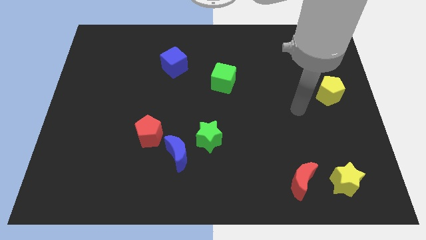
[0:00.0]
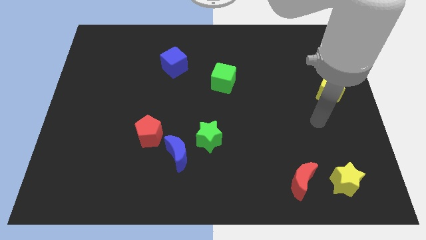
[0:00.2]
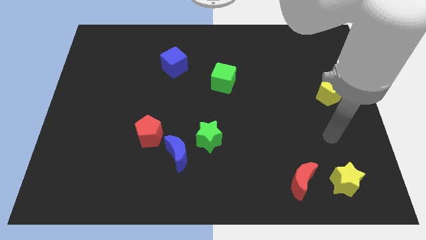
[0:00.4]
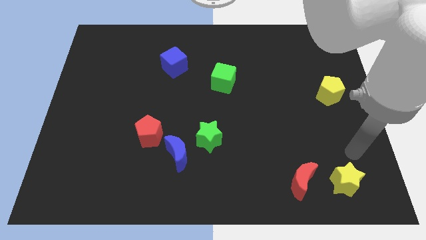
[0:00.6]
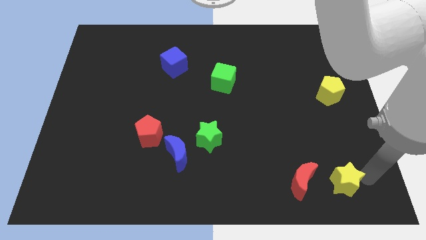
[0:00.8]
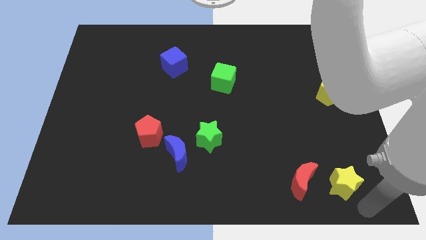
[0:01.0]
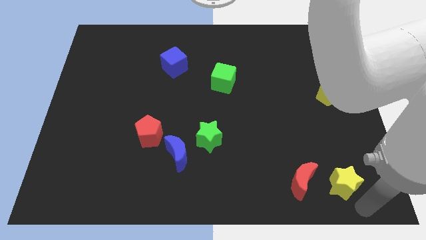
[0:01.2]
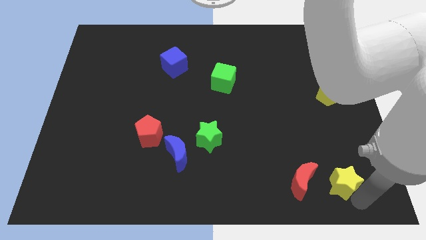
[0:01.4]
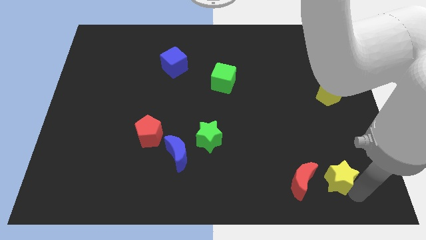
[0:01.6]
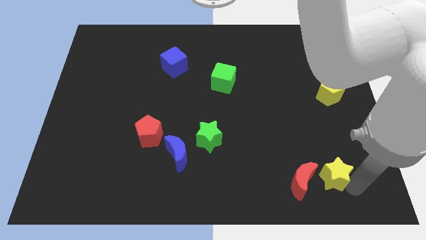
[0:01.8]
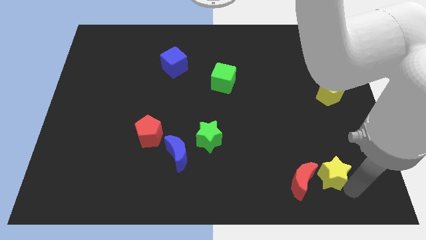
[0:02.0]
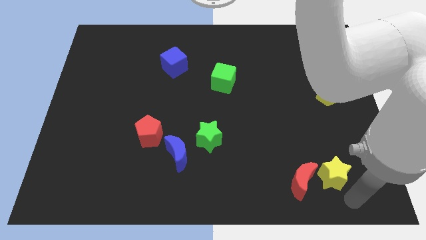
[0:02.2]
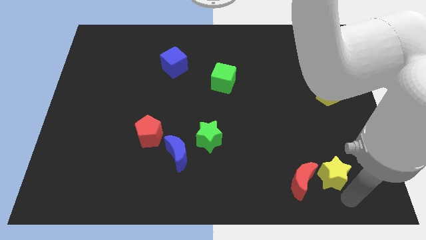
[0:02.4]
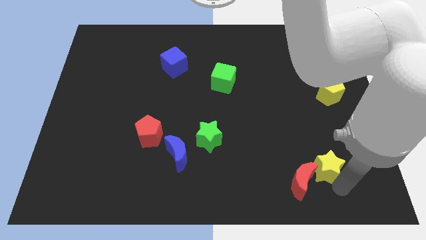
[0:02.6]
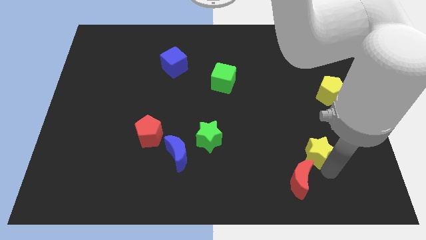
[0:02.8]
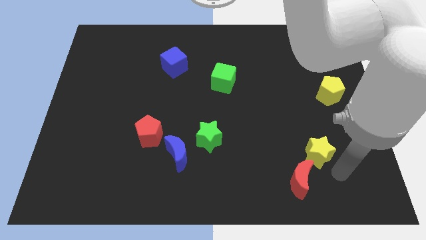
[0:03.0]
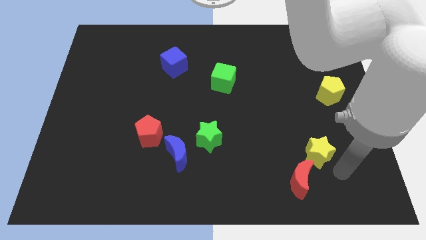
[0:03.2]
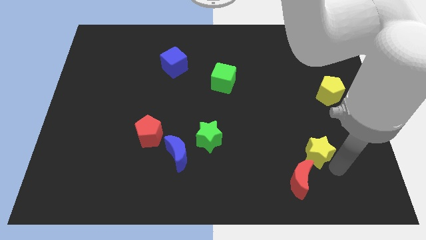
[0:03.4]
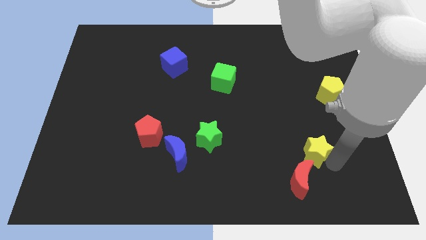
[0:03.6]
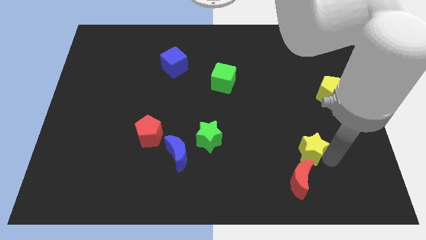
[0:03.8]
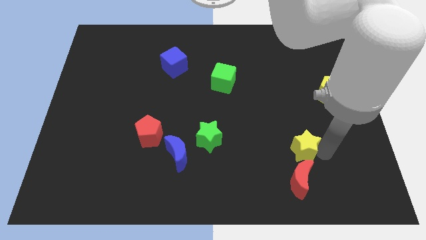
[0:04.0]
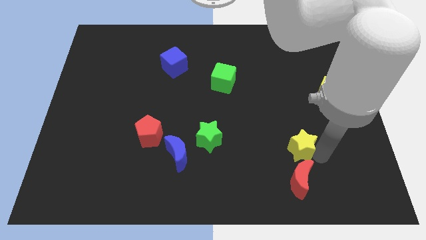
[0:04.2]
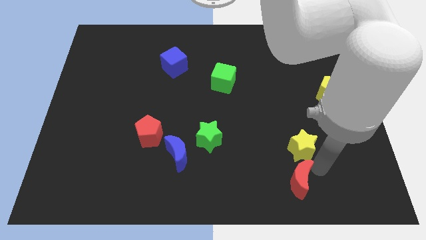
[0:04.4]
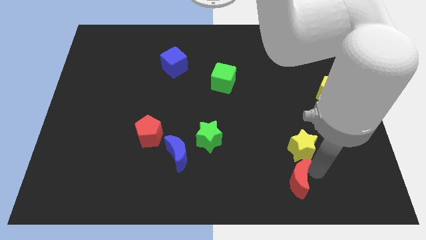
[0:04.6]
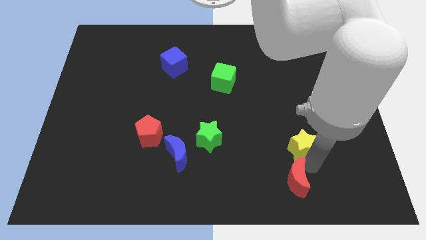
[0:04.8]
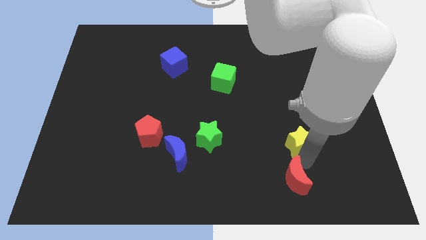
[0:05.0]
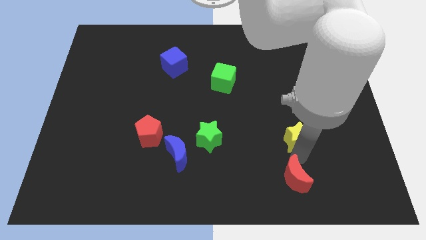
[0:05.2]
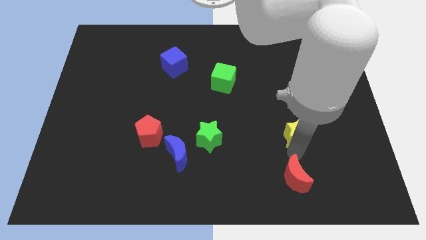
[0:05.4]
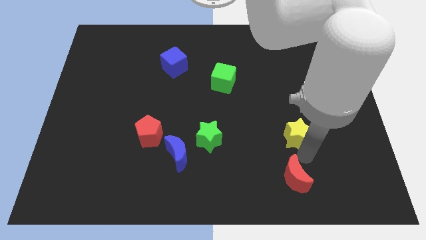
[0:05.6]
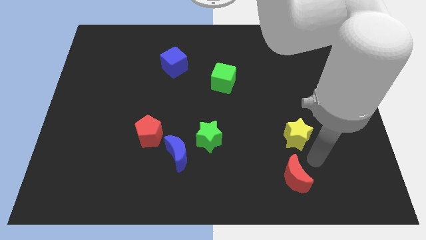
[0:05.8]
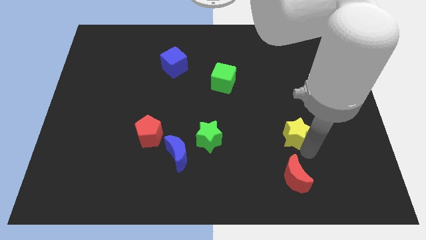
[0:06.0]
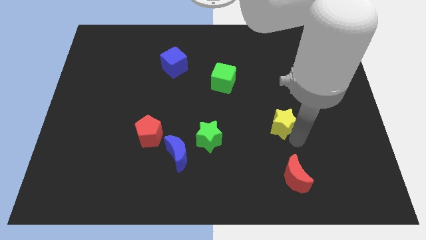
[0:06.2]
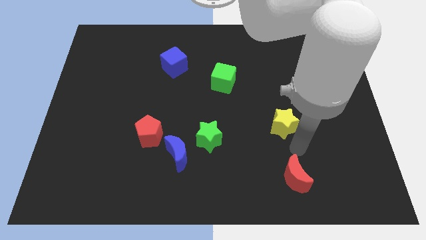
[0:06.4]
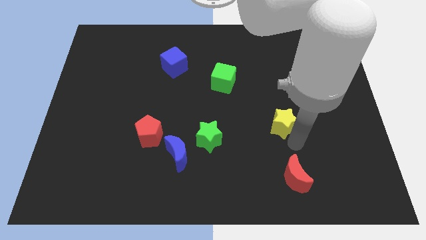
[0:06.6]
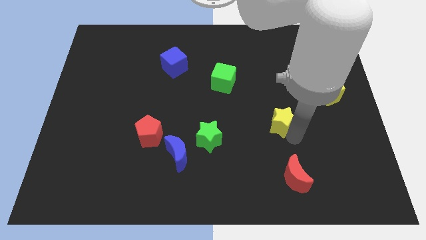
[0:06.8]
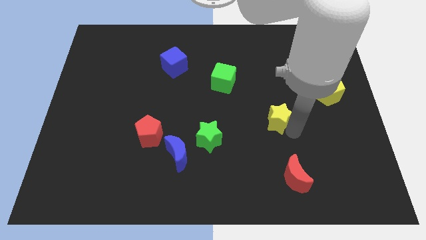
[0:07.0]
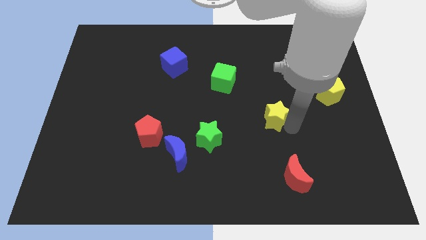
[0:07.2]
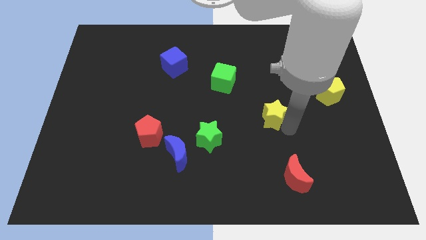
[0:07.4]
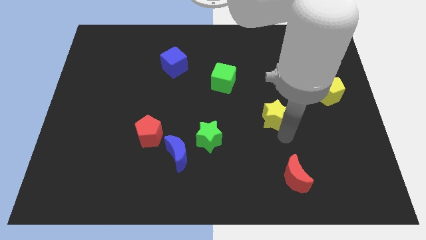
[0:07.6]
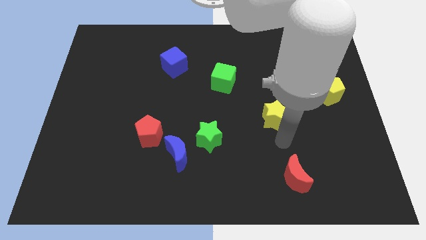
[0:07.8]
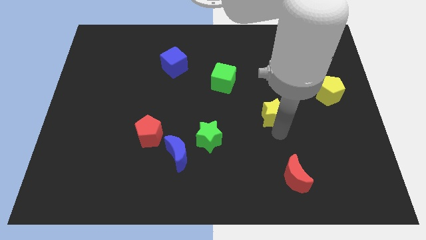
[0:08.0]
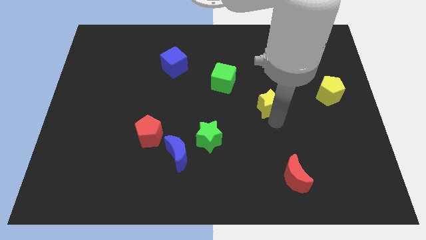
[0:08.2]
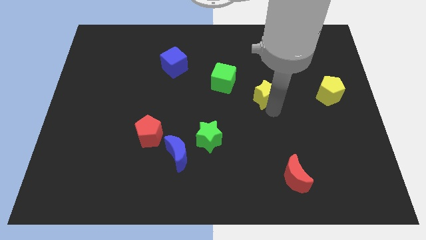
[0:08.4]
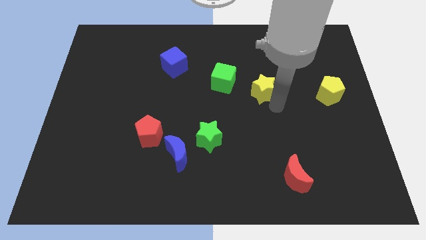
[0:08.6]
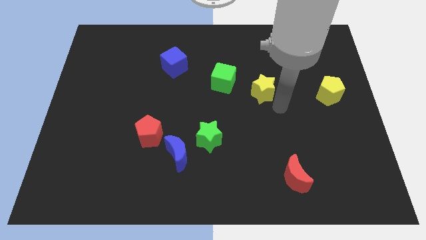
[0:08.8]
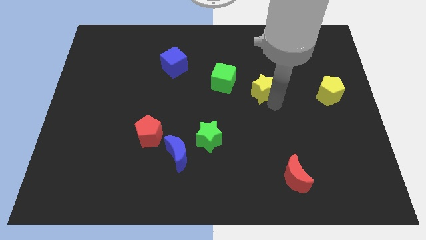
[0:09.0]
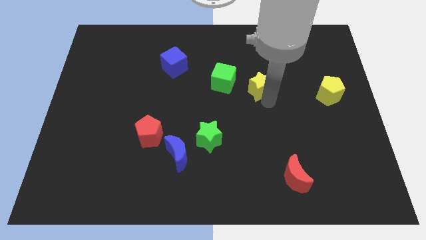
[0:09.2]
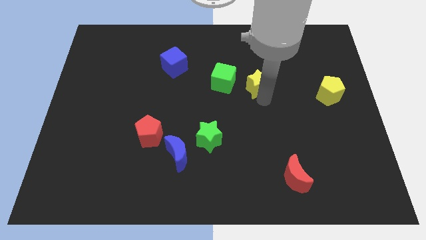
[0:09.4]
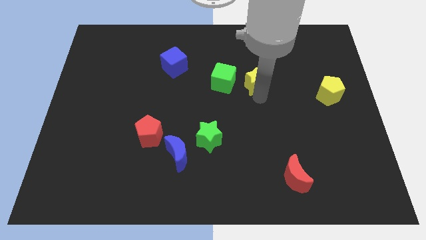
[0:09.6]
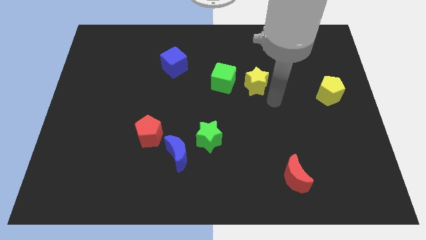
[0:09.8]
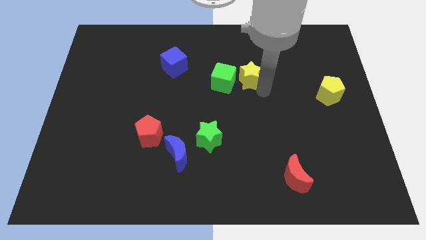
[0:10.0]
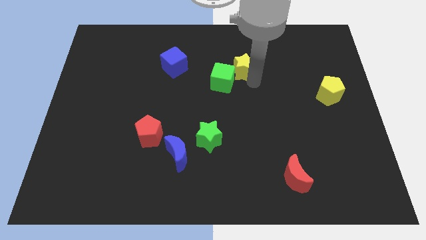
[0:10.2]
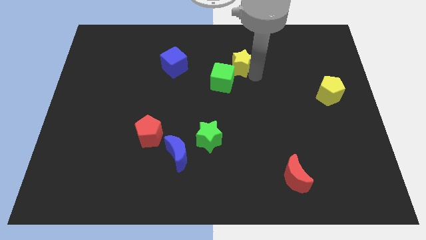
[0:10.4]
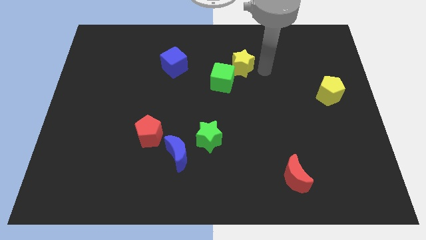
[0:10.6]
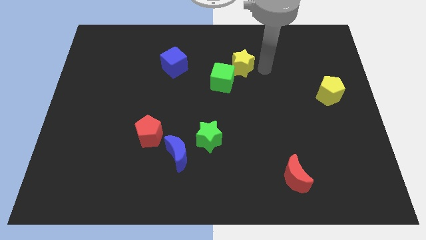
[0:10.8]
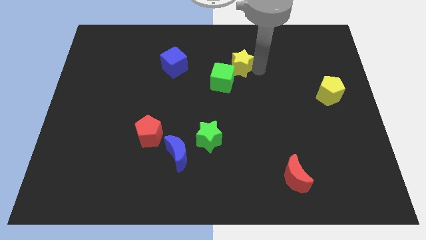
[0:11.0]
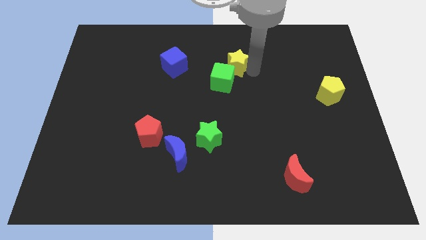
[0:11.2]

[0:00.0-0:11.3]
move the yellow star to the right side of the blue cube

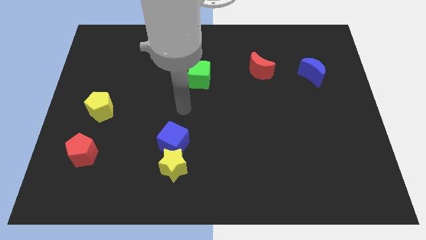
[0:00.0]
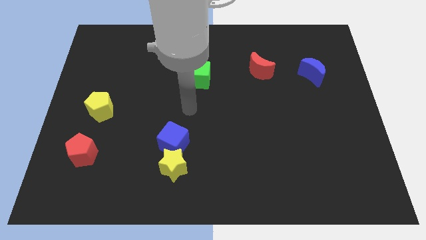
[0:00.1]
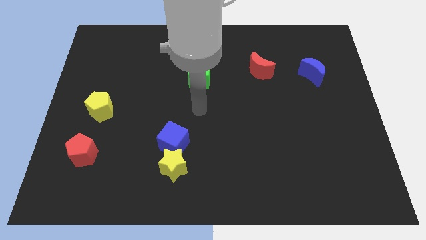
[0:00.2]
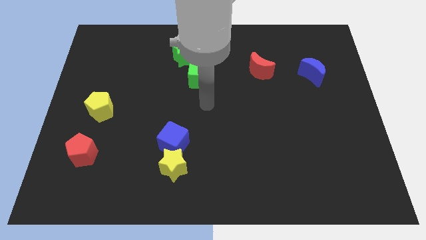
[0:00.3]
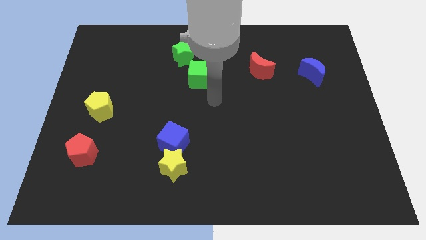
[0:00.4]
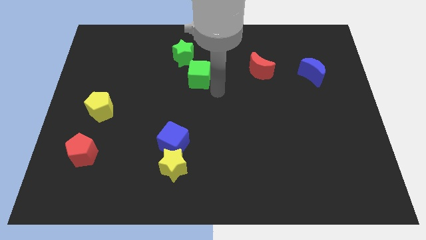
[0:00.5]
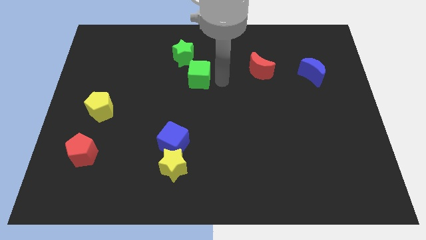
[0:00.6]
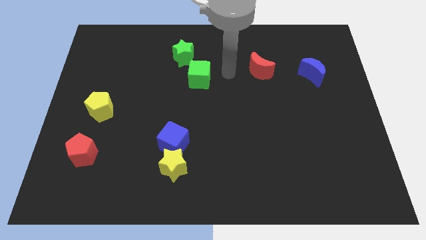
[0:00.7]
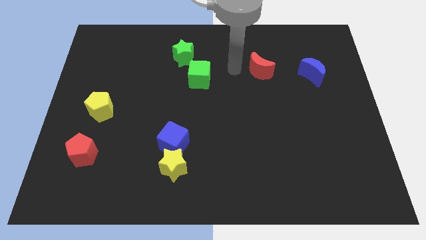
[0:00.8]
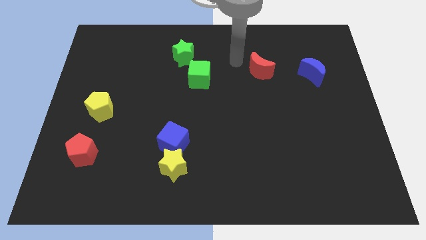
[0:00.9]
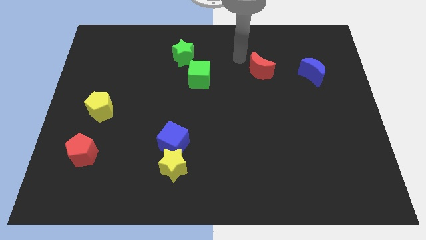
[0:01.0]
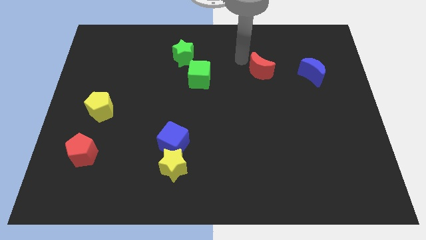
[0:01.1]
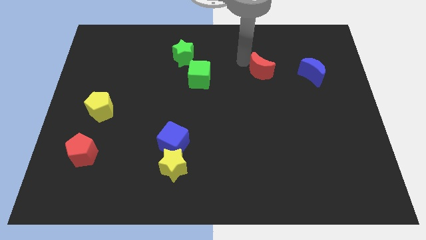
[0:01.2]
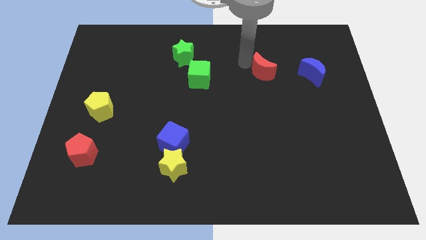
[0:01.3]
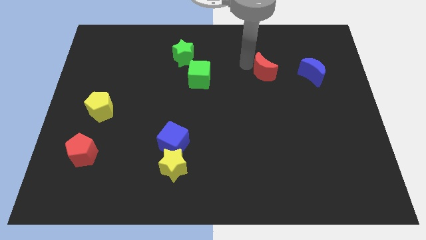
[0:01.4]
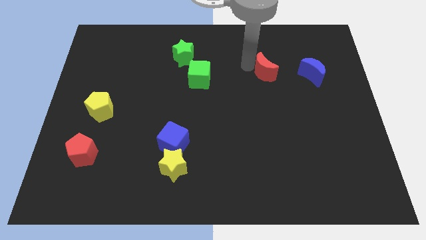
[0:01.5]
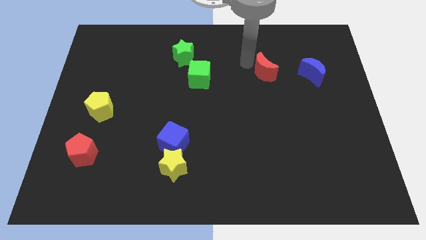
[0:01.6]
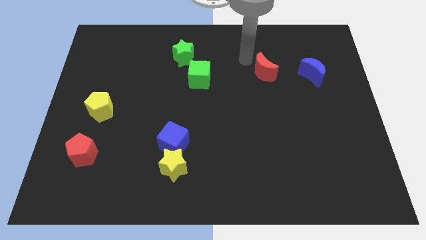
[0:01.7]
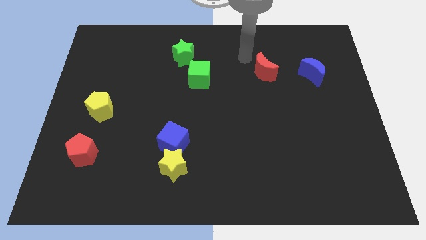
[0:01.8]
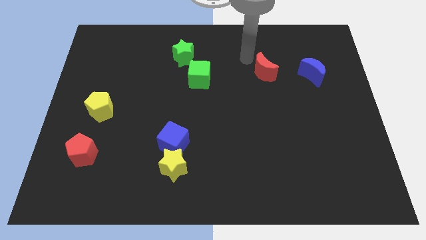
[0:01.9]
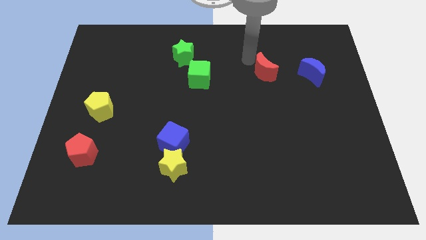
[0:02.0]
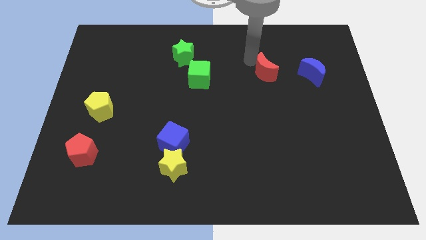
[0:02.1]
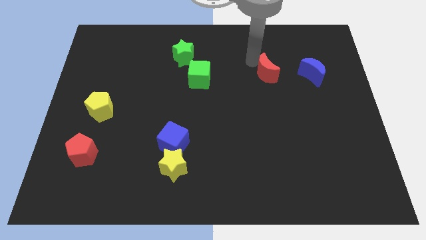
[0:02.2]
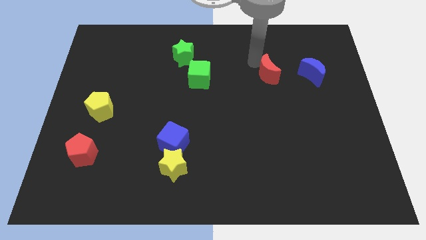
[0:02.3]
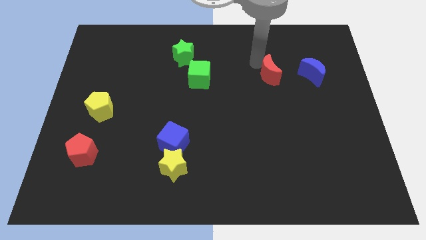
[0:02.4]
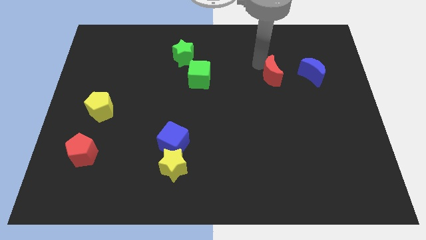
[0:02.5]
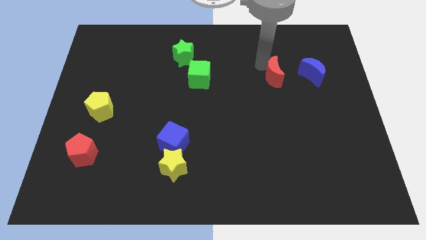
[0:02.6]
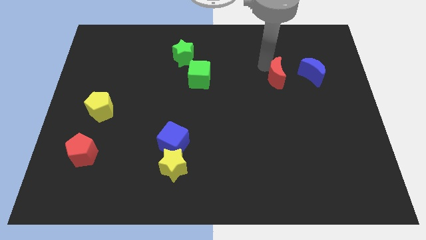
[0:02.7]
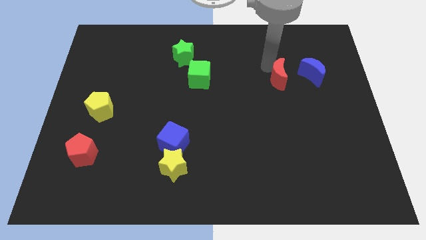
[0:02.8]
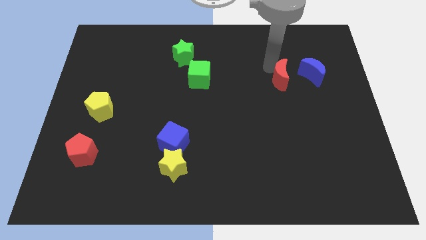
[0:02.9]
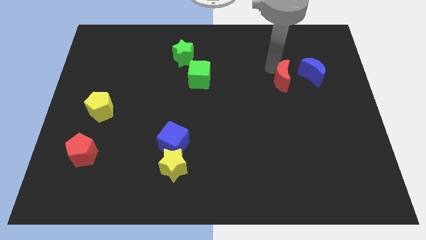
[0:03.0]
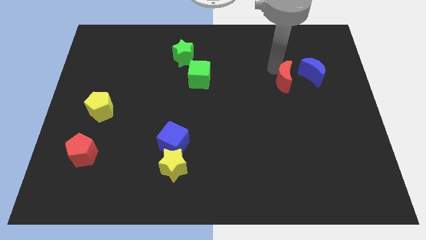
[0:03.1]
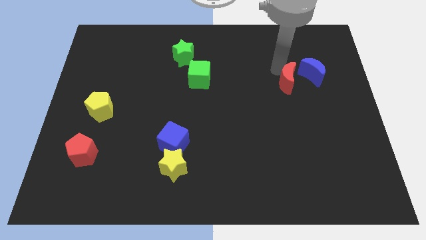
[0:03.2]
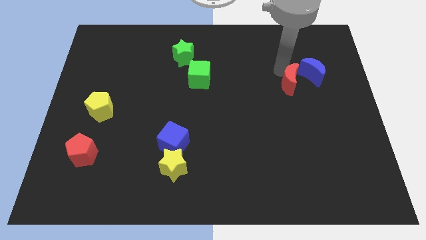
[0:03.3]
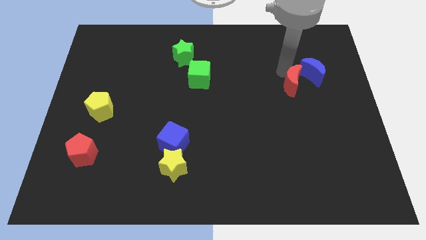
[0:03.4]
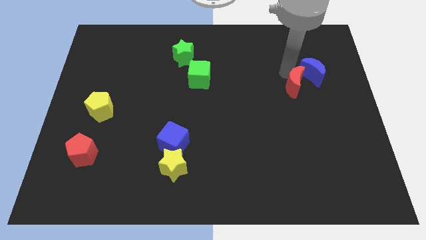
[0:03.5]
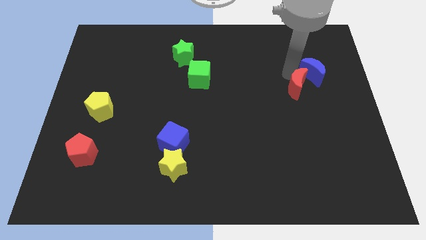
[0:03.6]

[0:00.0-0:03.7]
slide the red moon to the bottom of the blue moon
